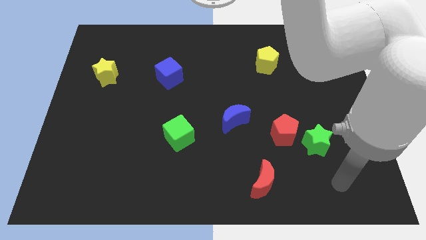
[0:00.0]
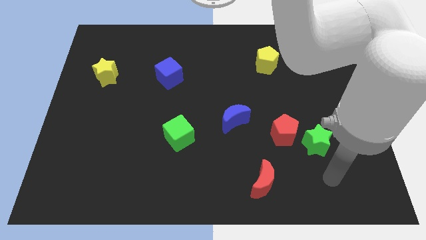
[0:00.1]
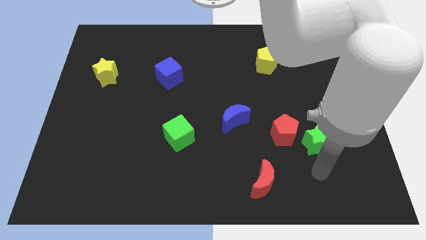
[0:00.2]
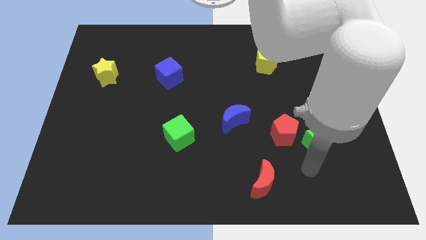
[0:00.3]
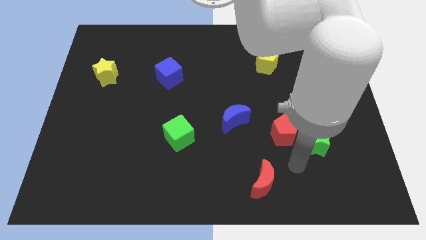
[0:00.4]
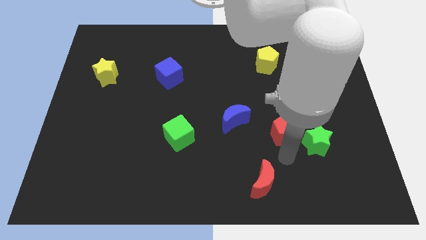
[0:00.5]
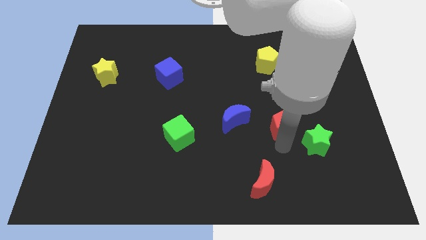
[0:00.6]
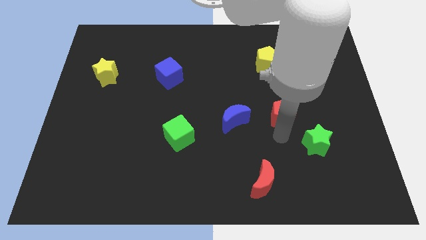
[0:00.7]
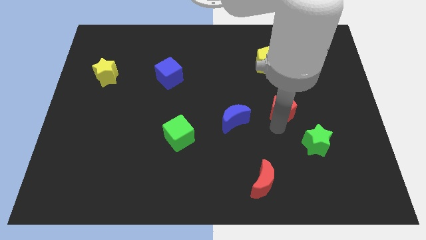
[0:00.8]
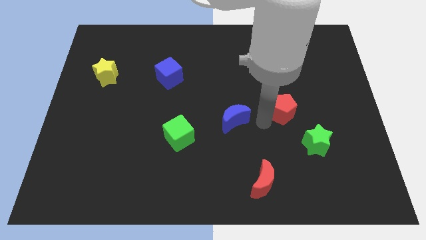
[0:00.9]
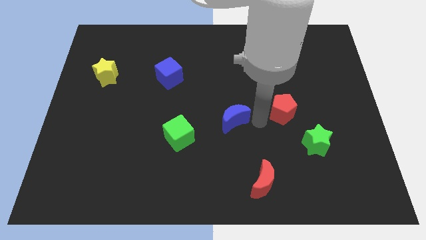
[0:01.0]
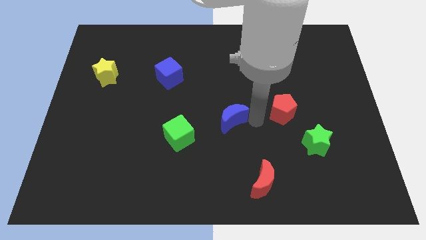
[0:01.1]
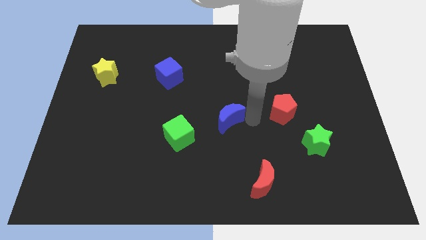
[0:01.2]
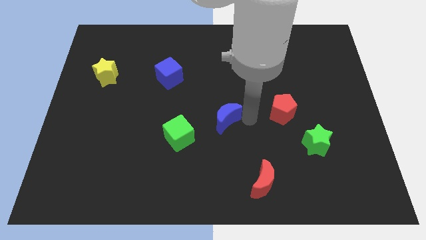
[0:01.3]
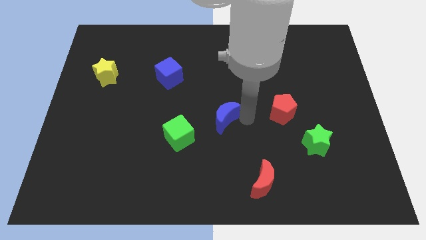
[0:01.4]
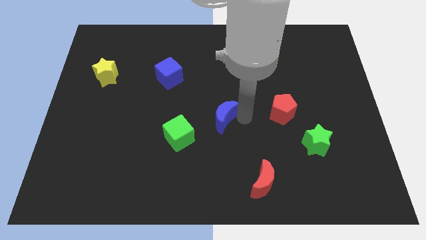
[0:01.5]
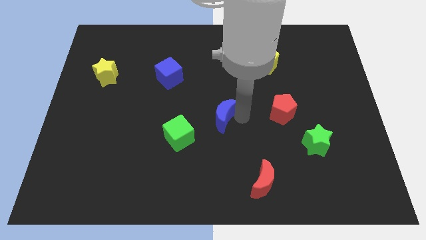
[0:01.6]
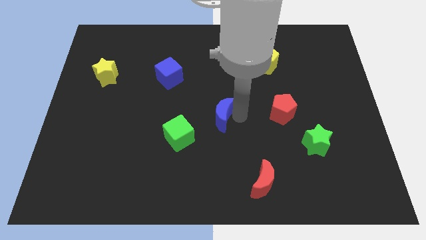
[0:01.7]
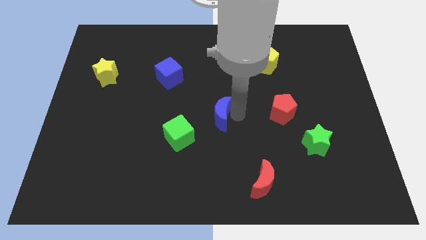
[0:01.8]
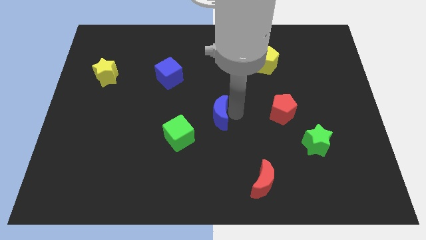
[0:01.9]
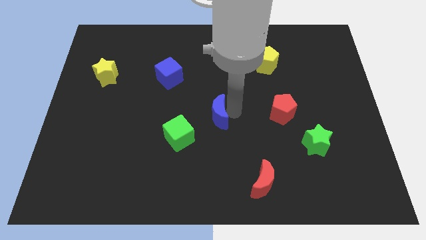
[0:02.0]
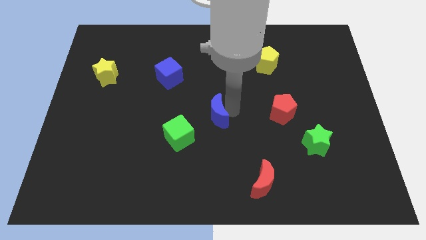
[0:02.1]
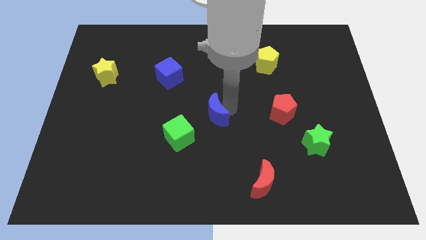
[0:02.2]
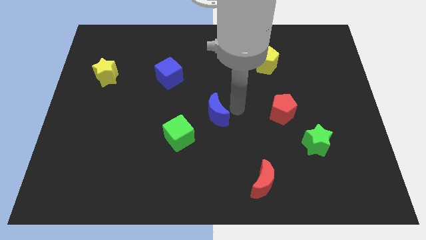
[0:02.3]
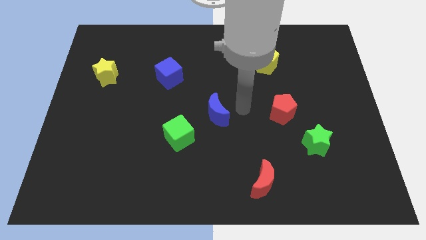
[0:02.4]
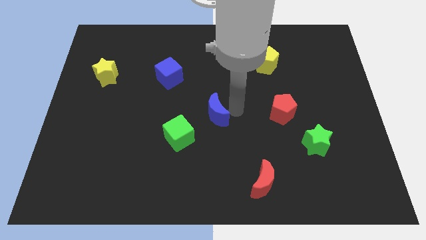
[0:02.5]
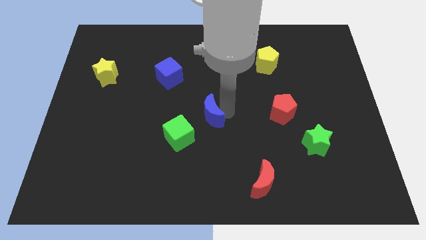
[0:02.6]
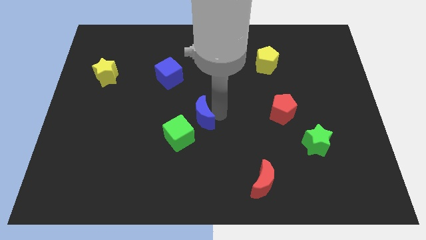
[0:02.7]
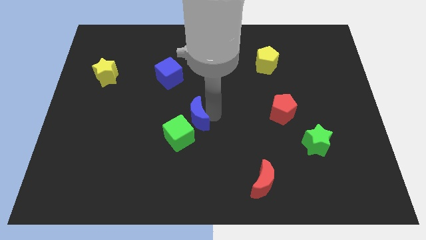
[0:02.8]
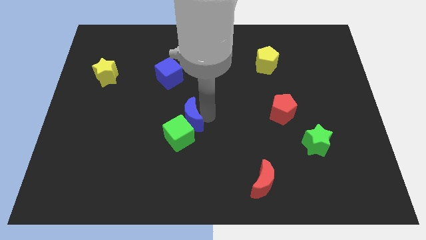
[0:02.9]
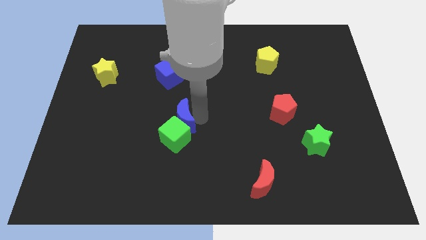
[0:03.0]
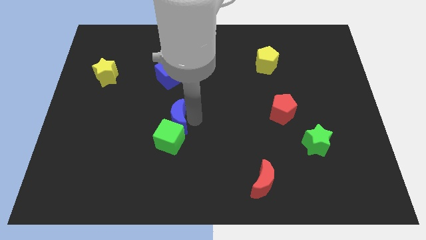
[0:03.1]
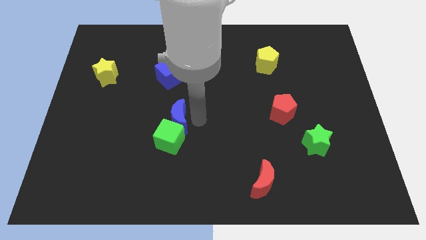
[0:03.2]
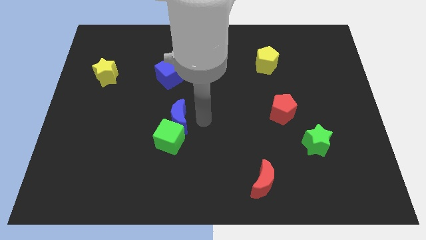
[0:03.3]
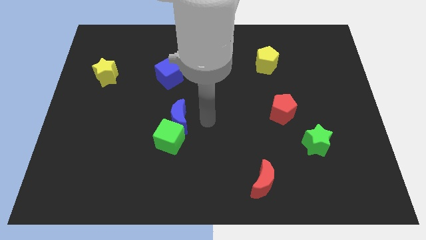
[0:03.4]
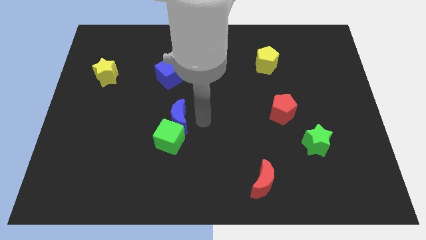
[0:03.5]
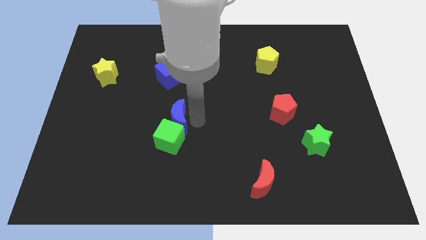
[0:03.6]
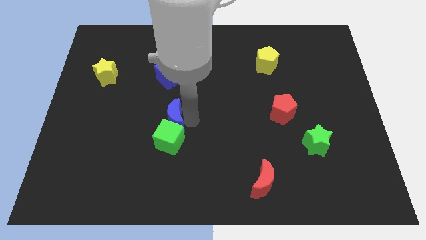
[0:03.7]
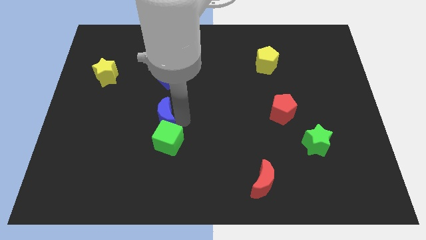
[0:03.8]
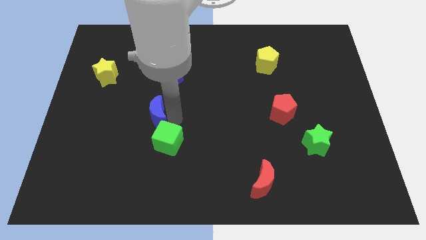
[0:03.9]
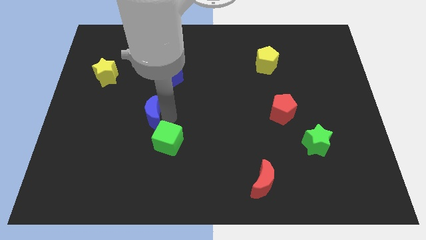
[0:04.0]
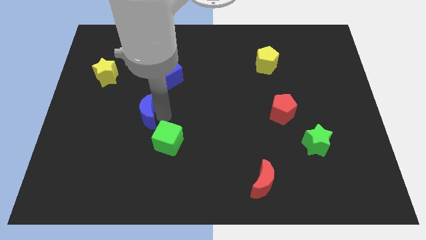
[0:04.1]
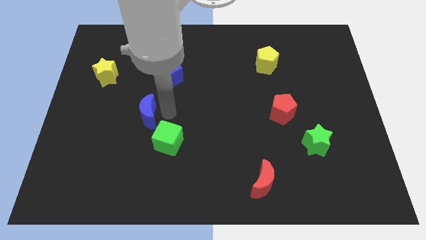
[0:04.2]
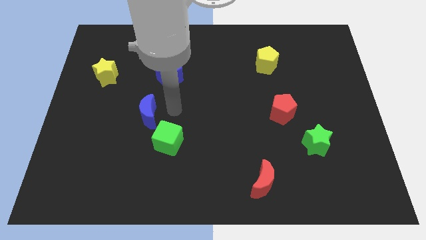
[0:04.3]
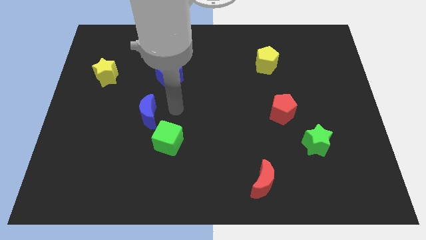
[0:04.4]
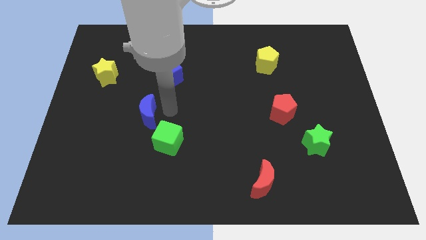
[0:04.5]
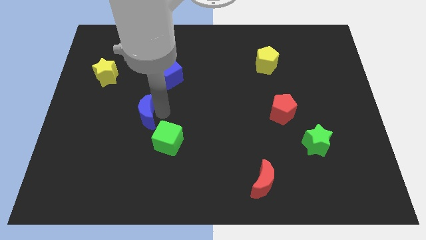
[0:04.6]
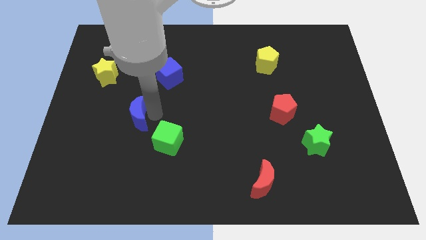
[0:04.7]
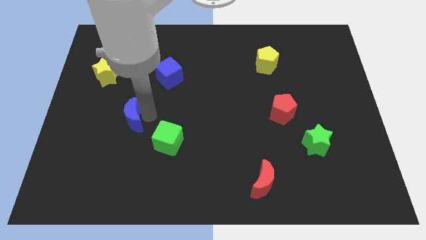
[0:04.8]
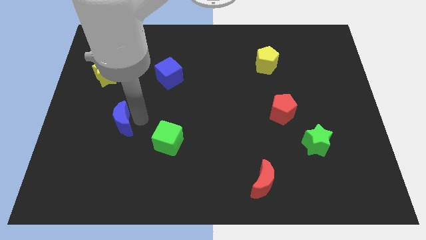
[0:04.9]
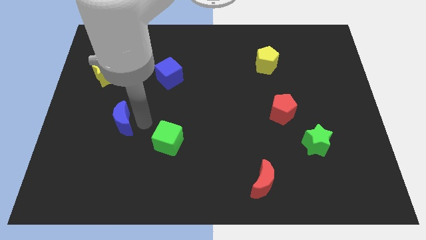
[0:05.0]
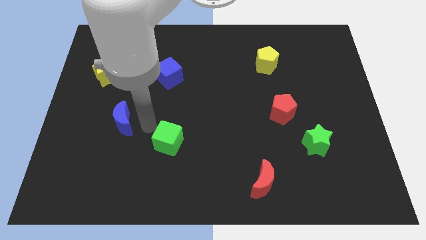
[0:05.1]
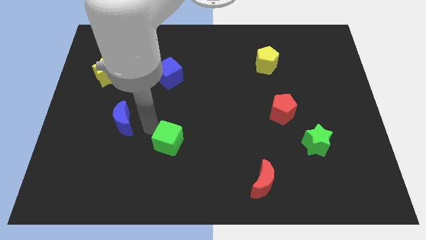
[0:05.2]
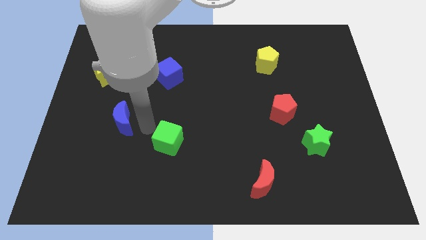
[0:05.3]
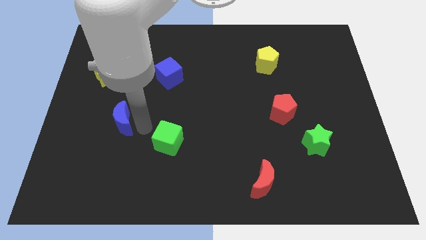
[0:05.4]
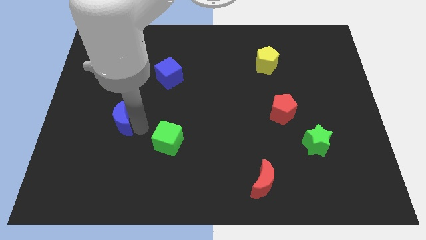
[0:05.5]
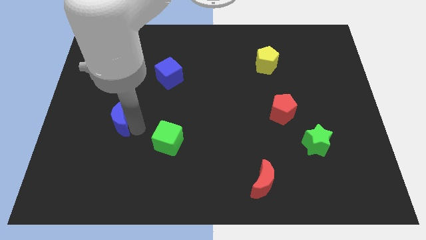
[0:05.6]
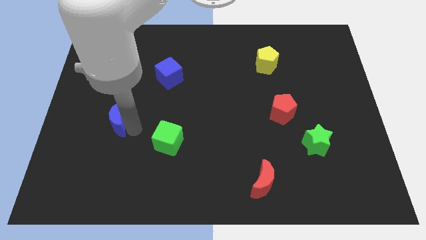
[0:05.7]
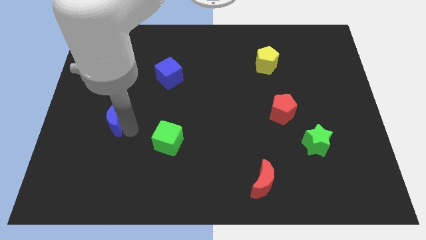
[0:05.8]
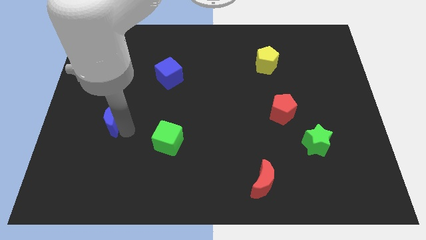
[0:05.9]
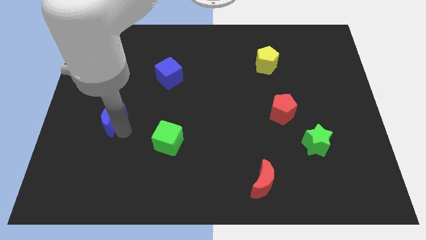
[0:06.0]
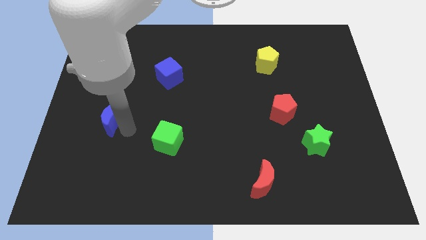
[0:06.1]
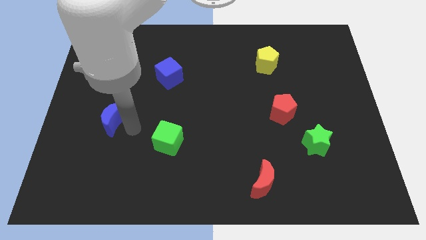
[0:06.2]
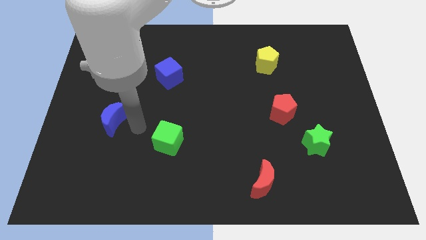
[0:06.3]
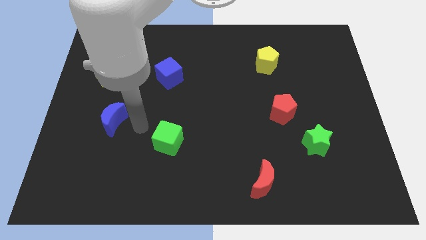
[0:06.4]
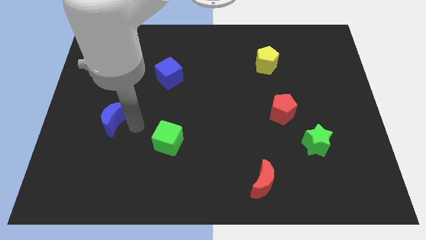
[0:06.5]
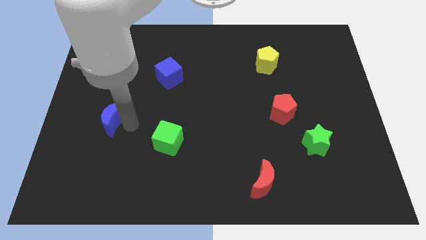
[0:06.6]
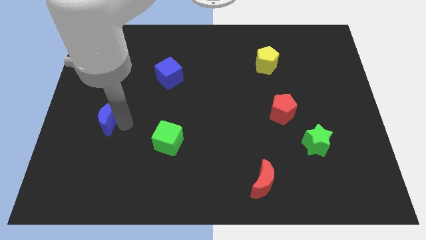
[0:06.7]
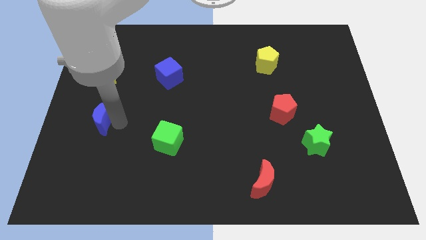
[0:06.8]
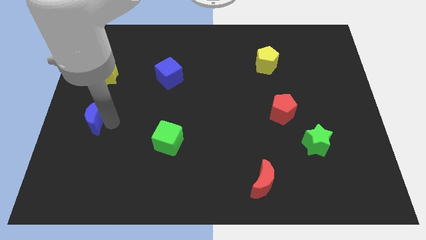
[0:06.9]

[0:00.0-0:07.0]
move the blue moon to the left side of the board
